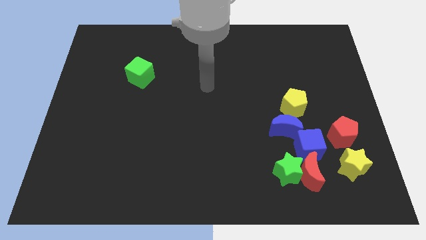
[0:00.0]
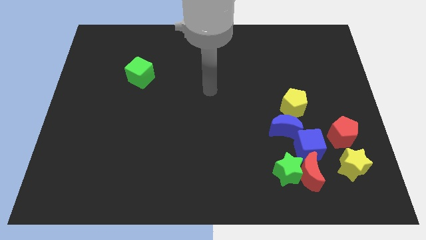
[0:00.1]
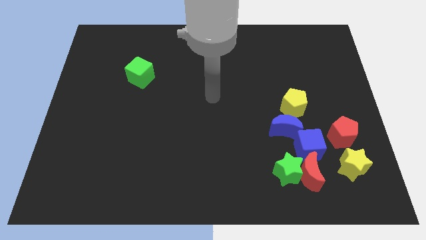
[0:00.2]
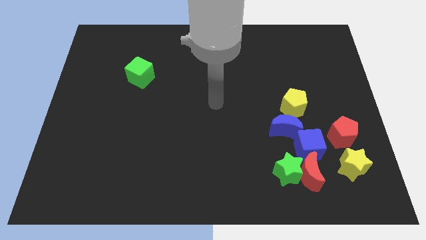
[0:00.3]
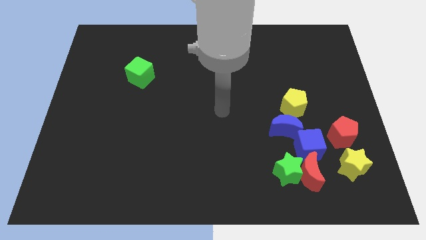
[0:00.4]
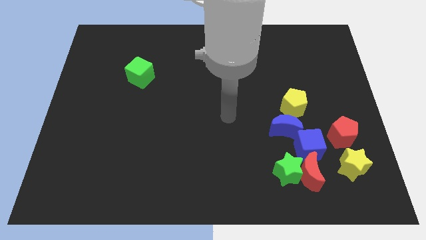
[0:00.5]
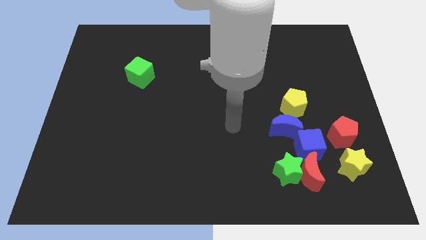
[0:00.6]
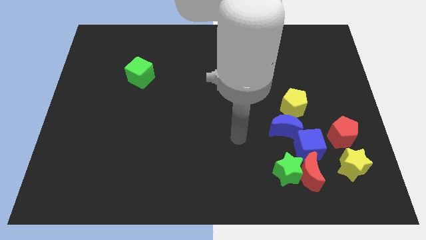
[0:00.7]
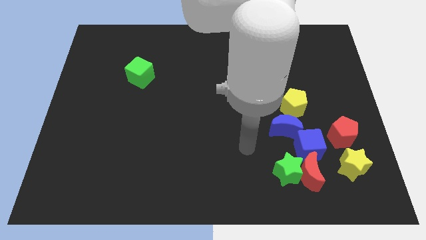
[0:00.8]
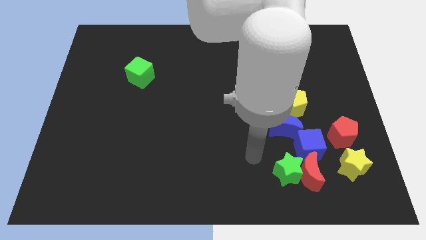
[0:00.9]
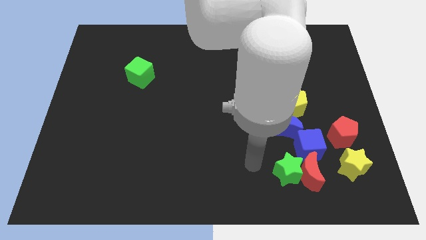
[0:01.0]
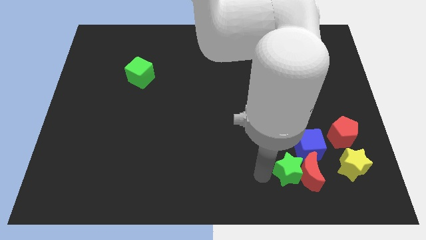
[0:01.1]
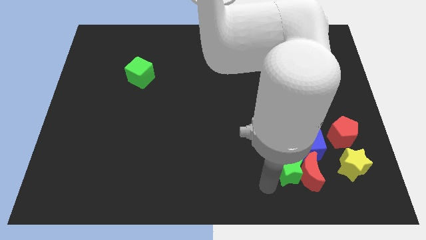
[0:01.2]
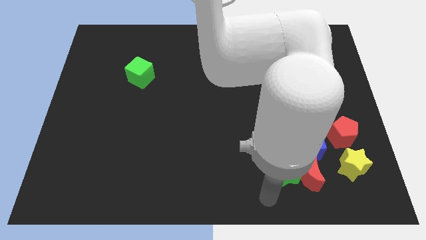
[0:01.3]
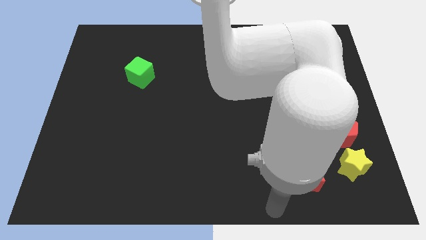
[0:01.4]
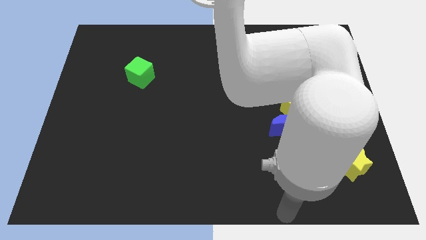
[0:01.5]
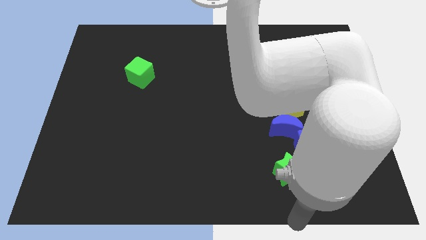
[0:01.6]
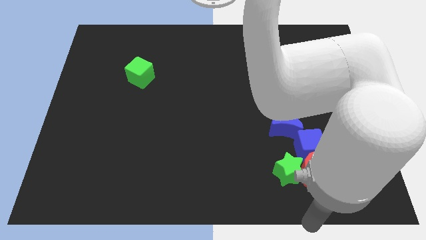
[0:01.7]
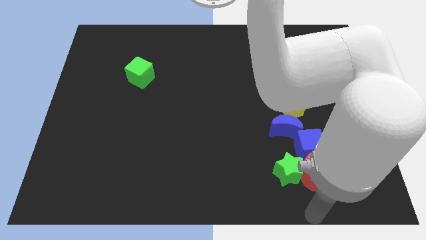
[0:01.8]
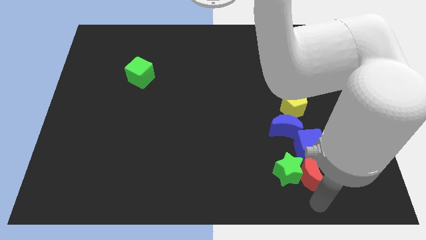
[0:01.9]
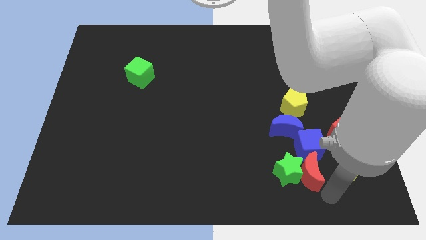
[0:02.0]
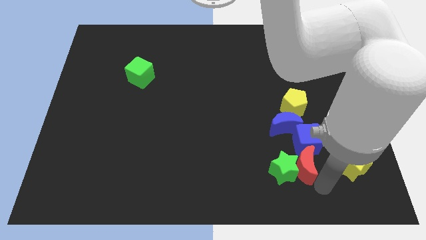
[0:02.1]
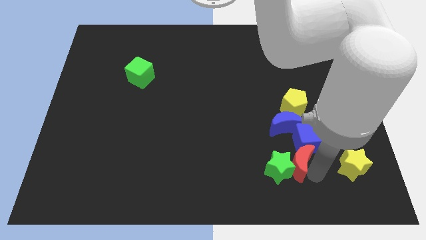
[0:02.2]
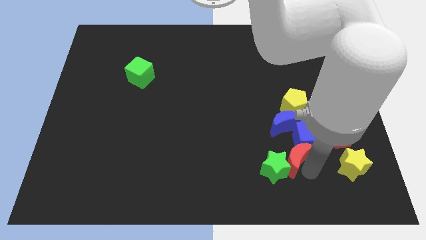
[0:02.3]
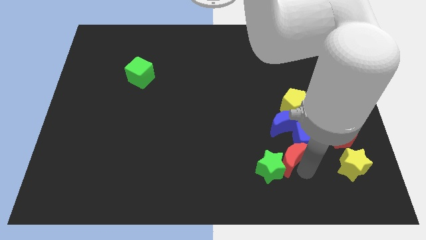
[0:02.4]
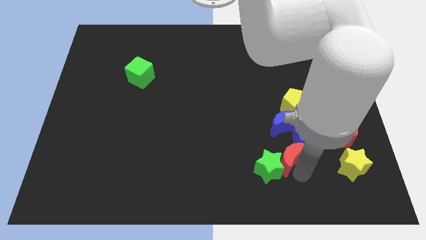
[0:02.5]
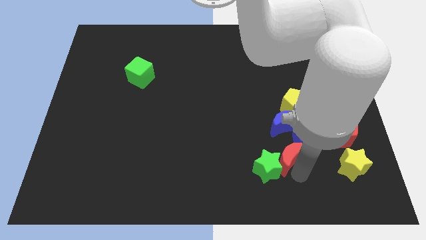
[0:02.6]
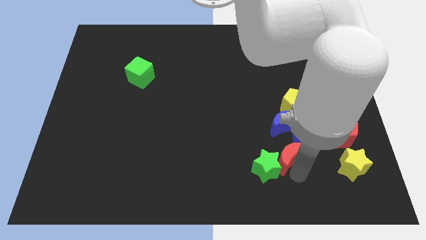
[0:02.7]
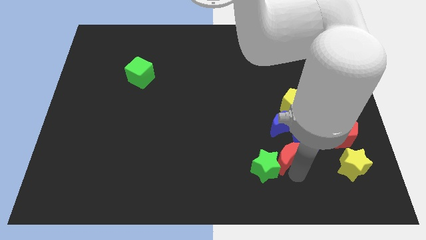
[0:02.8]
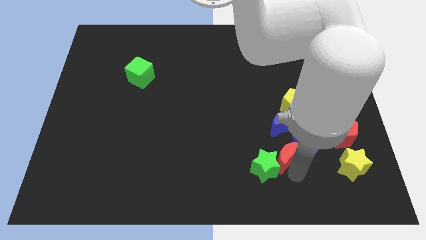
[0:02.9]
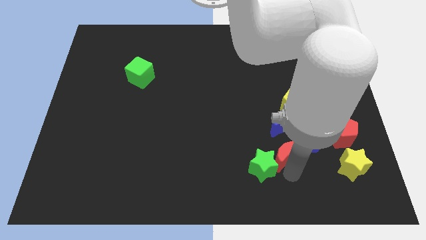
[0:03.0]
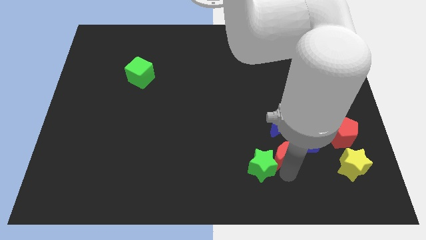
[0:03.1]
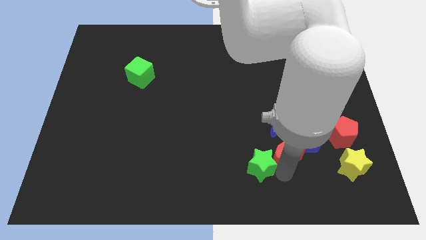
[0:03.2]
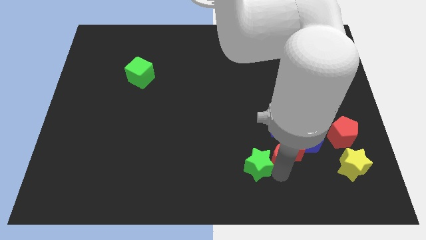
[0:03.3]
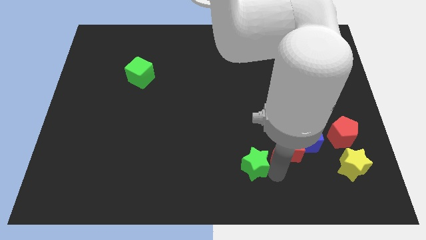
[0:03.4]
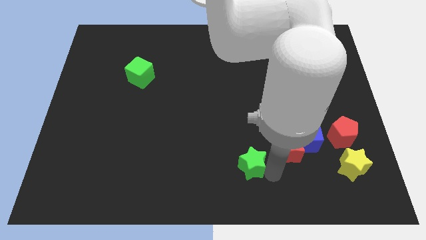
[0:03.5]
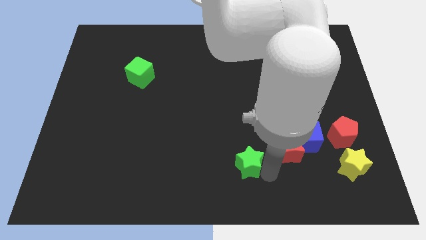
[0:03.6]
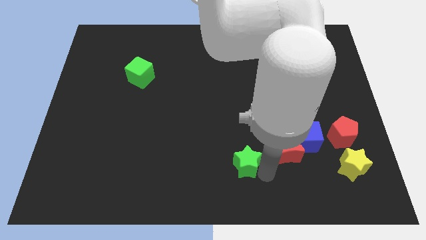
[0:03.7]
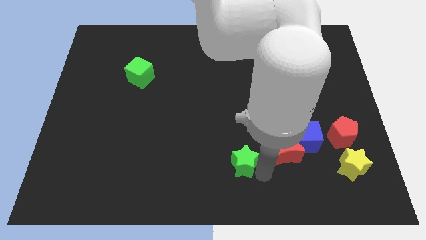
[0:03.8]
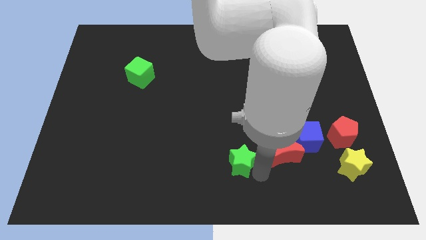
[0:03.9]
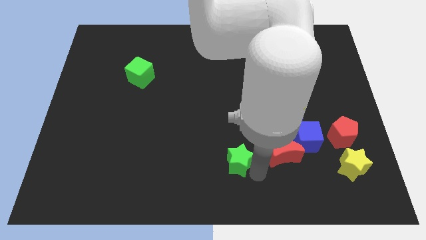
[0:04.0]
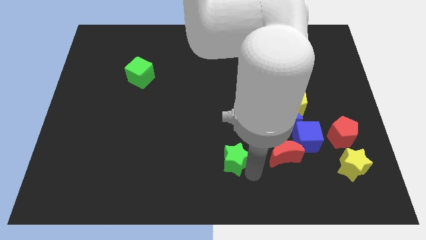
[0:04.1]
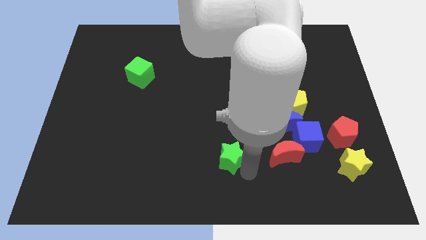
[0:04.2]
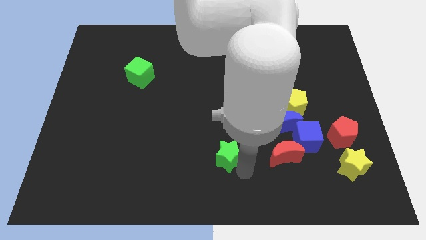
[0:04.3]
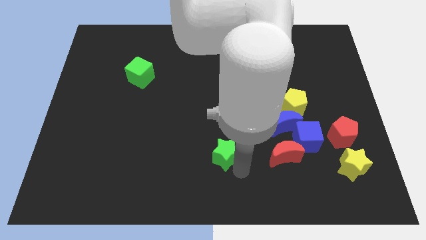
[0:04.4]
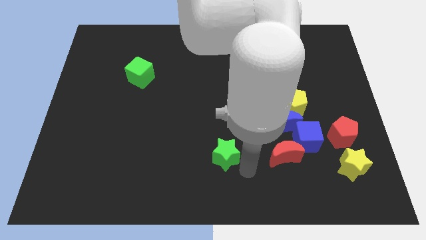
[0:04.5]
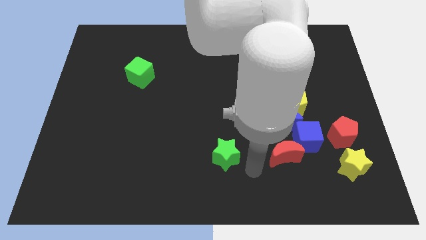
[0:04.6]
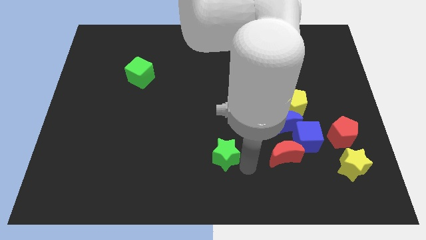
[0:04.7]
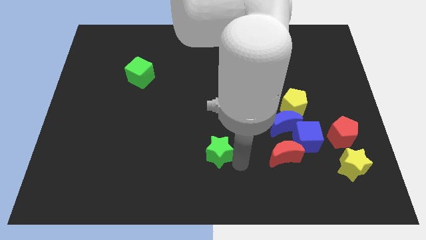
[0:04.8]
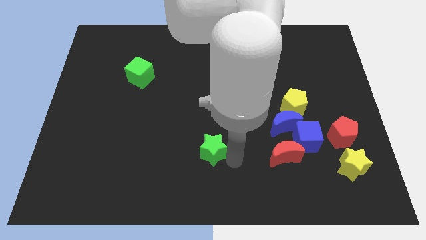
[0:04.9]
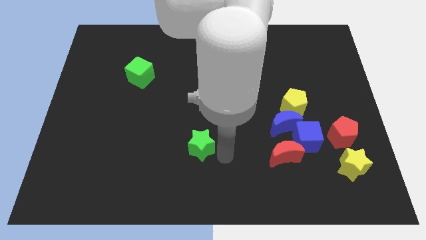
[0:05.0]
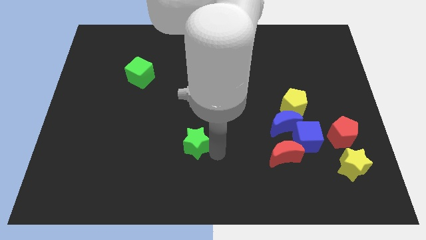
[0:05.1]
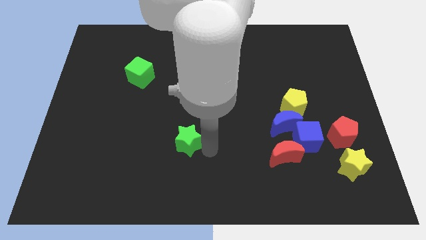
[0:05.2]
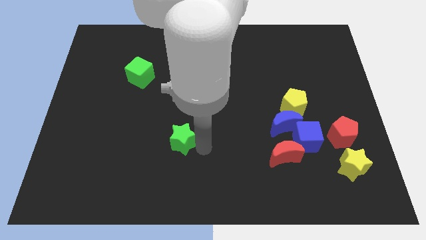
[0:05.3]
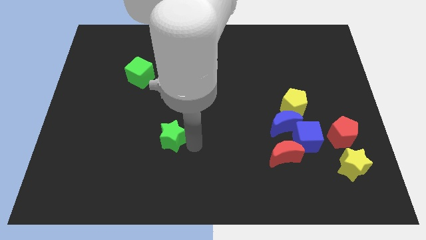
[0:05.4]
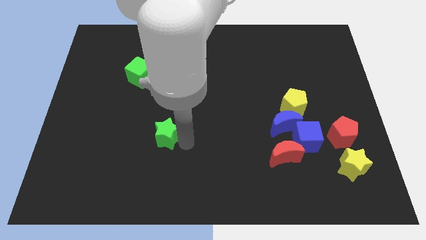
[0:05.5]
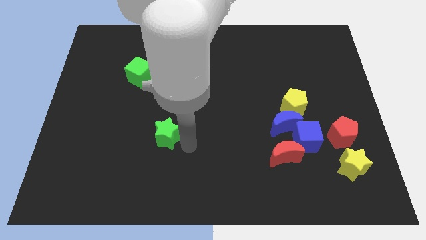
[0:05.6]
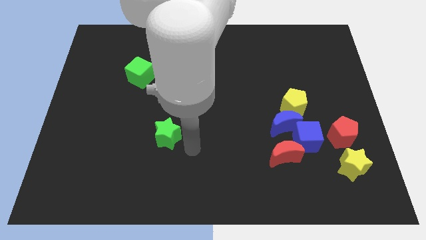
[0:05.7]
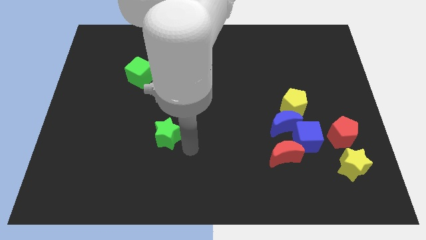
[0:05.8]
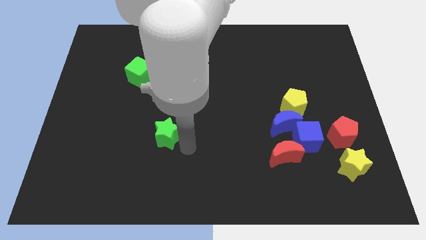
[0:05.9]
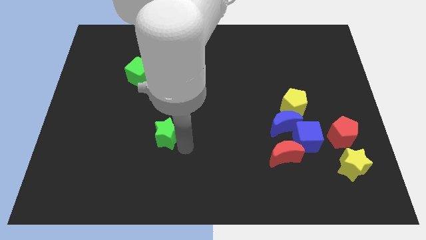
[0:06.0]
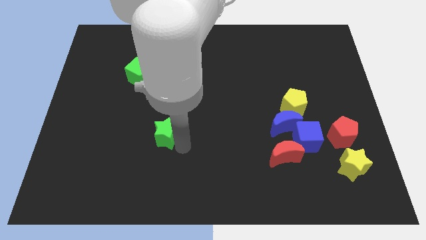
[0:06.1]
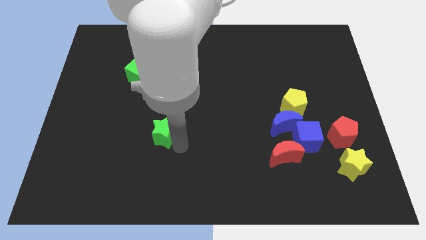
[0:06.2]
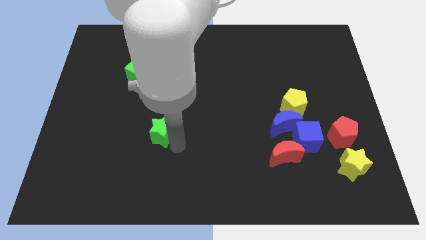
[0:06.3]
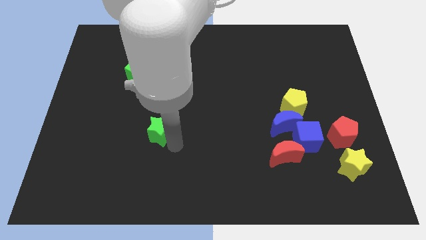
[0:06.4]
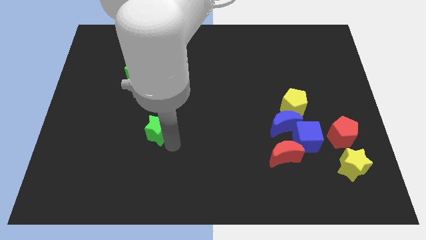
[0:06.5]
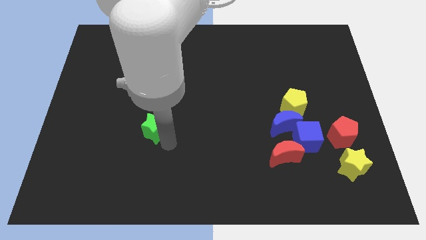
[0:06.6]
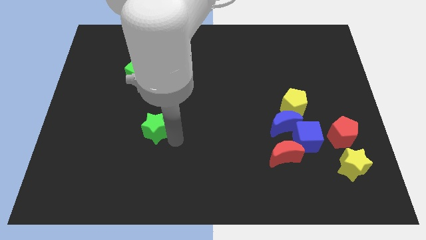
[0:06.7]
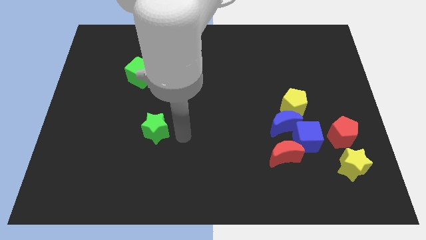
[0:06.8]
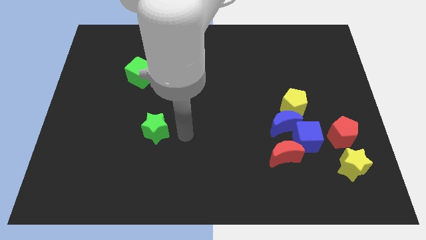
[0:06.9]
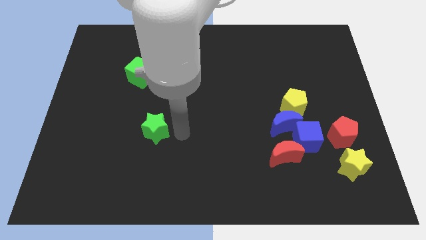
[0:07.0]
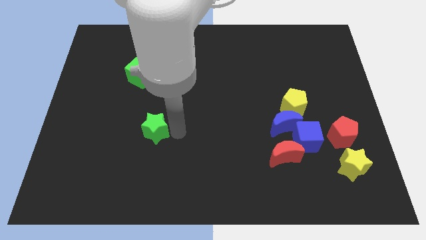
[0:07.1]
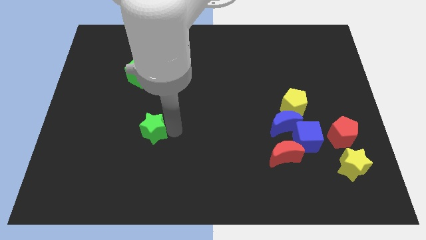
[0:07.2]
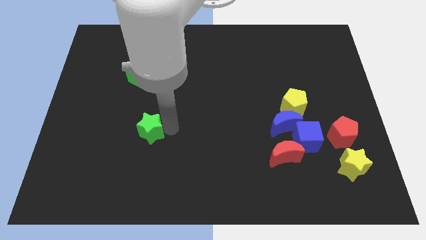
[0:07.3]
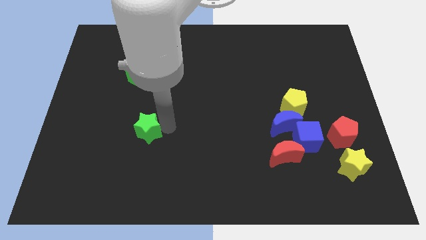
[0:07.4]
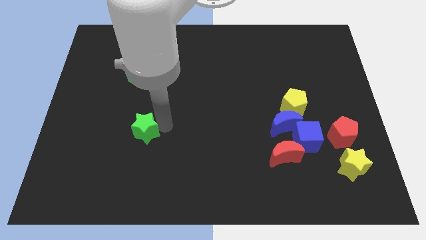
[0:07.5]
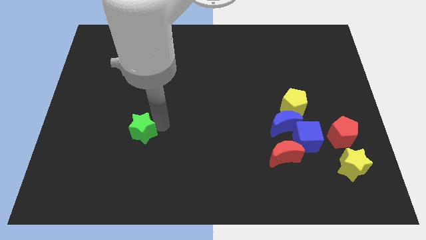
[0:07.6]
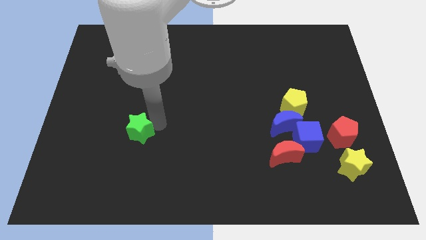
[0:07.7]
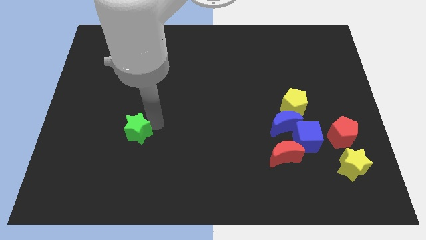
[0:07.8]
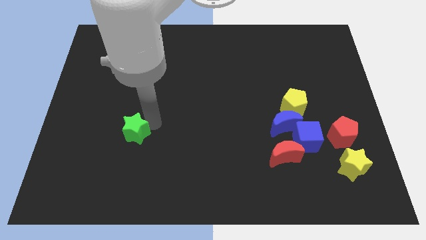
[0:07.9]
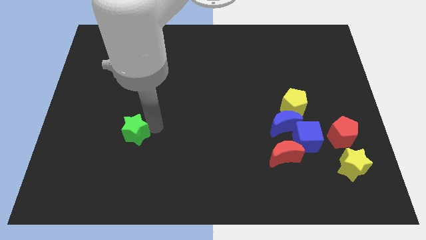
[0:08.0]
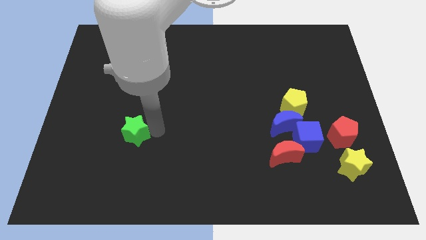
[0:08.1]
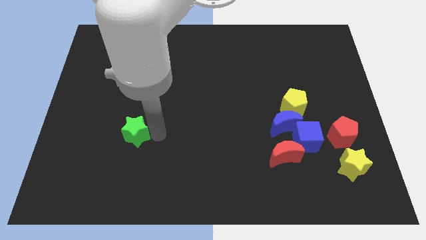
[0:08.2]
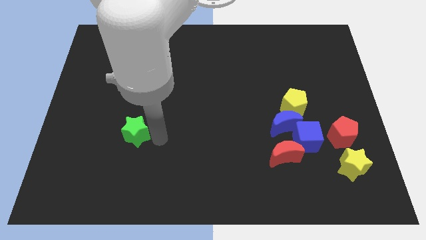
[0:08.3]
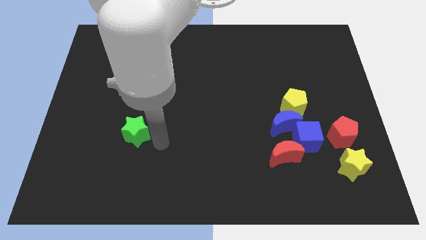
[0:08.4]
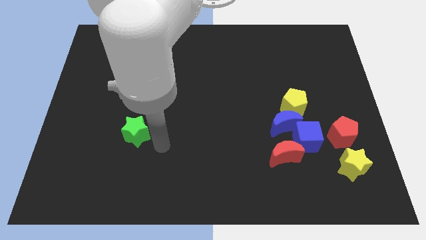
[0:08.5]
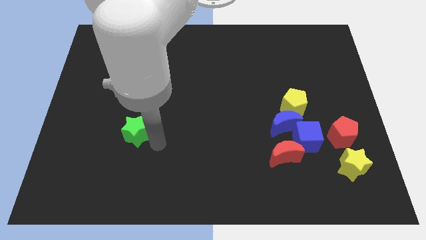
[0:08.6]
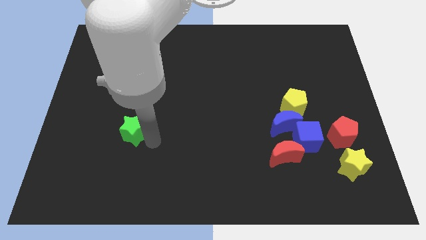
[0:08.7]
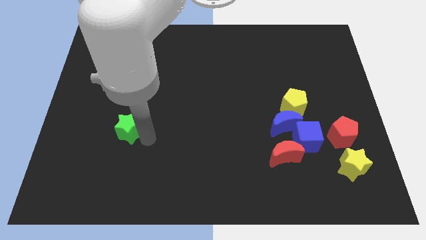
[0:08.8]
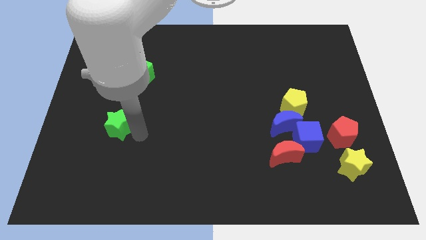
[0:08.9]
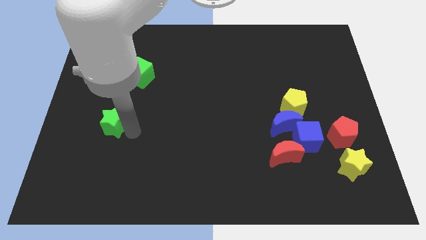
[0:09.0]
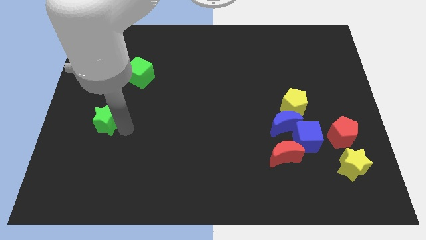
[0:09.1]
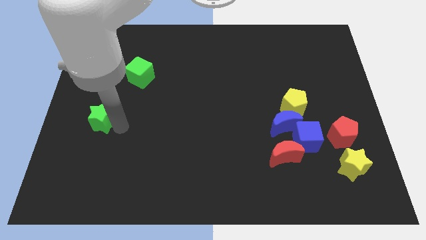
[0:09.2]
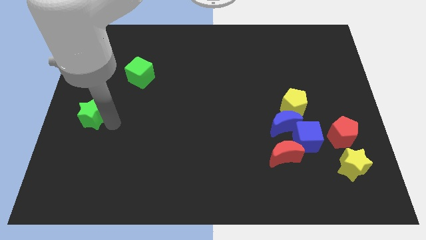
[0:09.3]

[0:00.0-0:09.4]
put the green star to the left side
